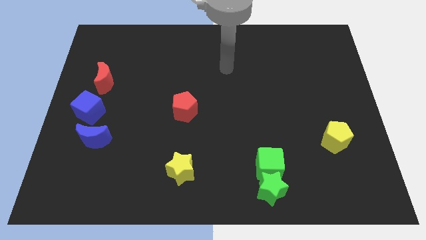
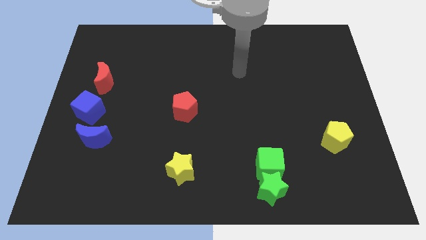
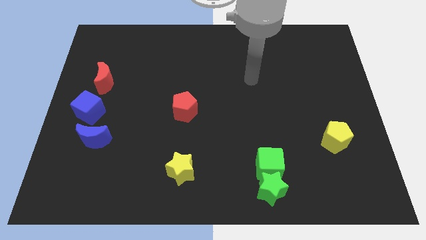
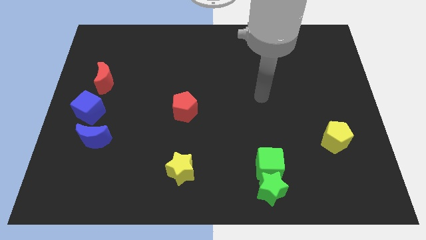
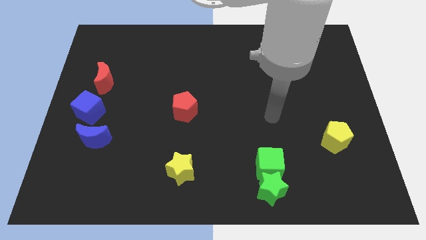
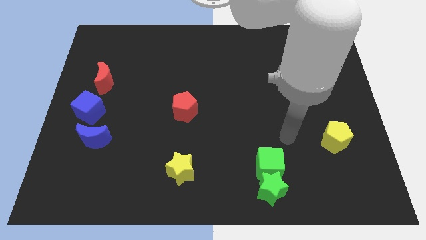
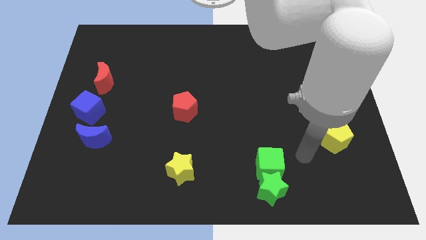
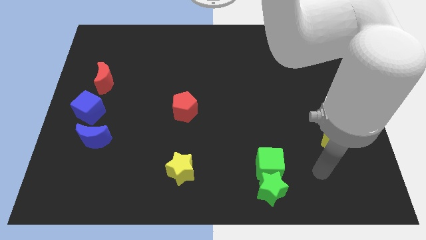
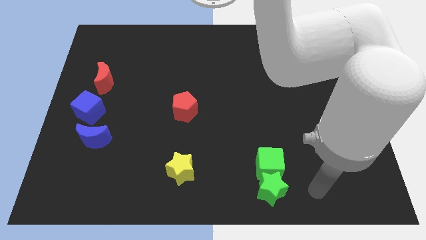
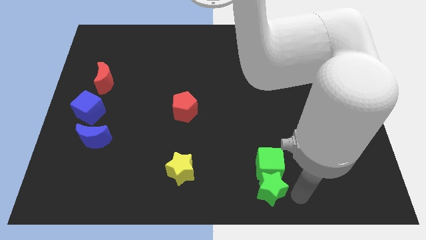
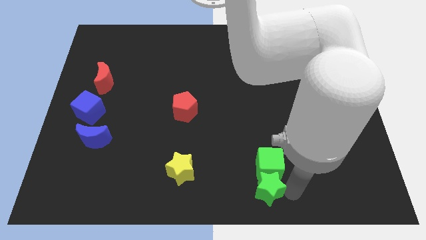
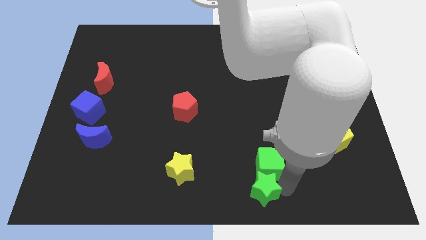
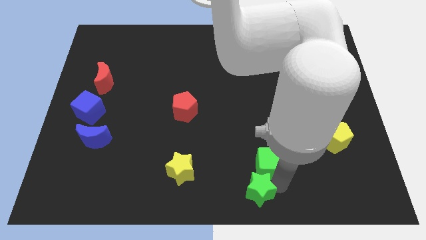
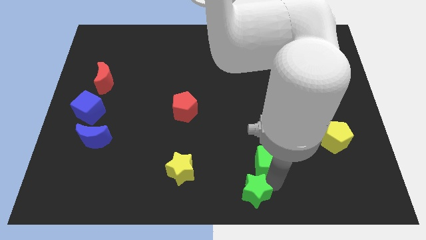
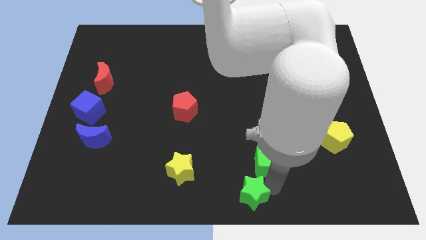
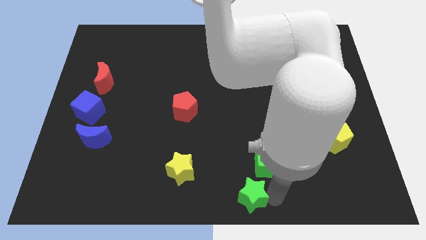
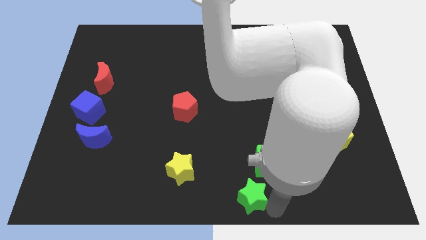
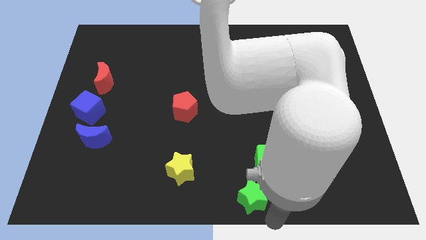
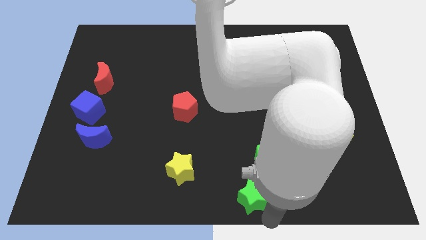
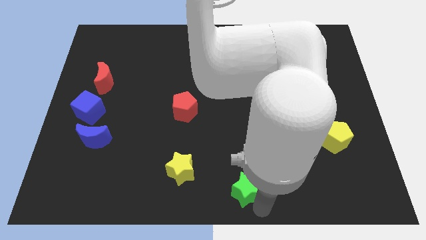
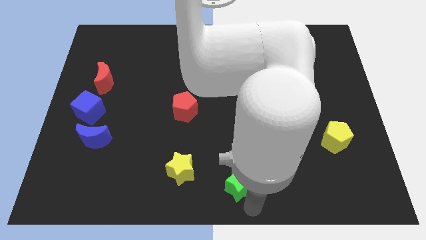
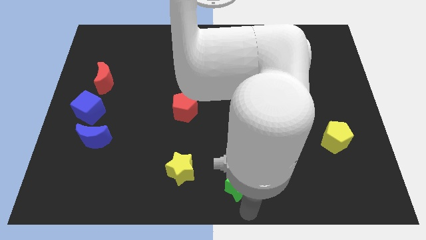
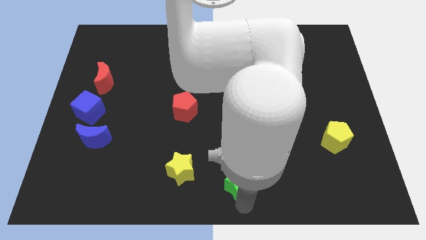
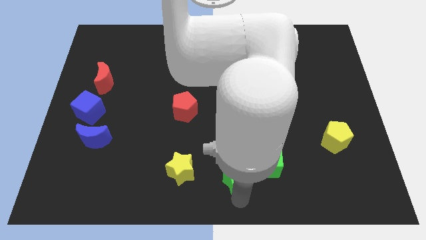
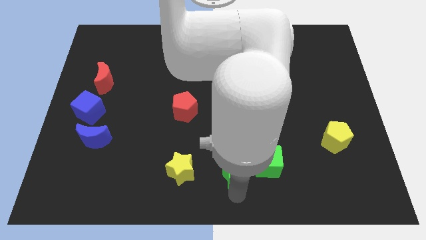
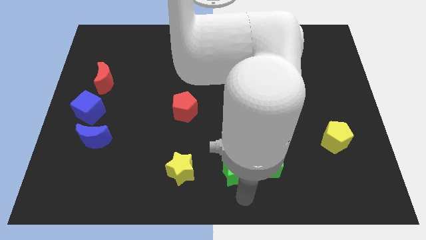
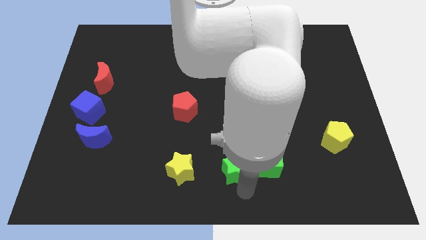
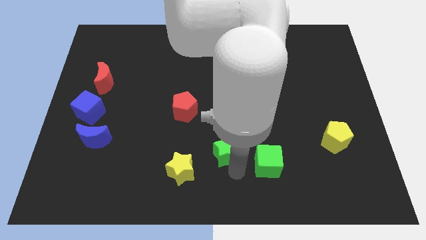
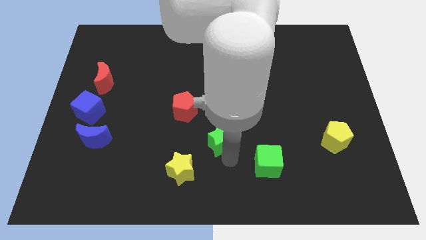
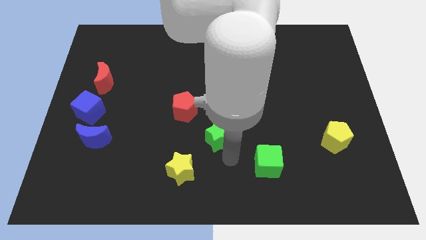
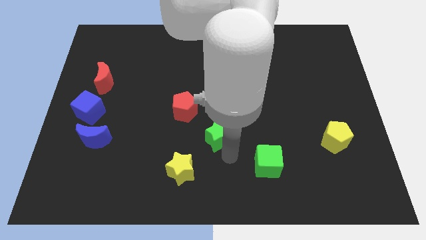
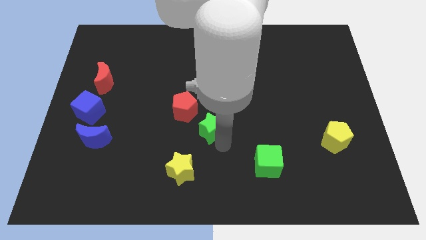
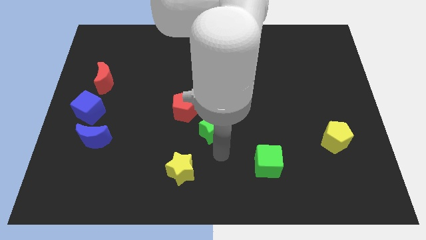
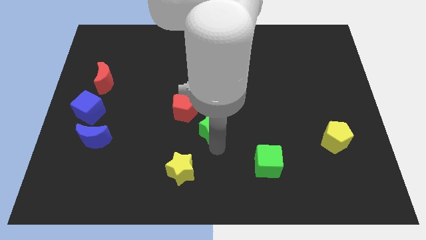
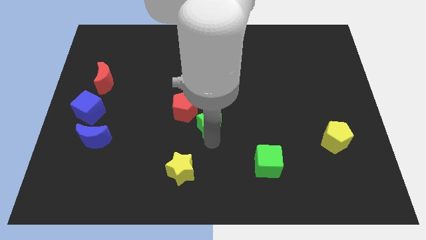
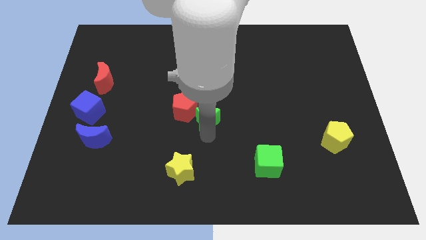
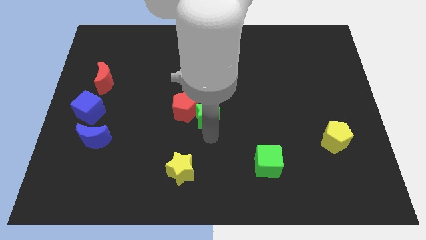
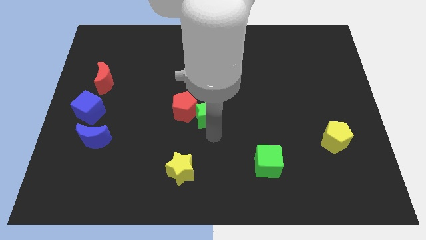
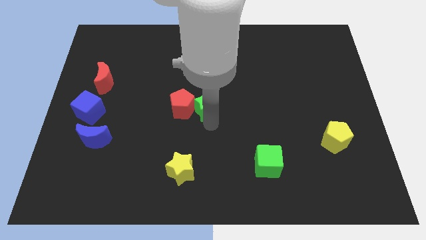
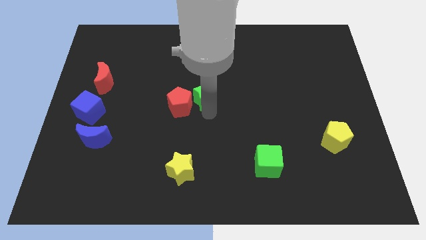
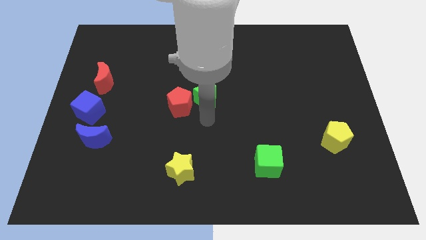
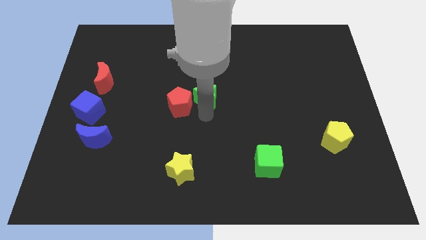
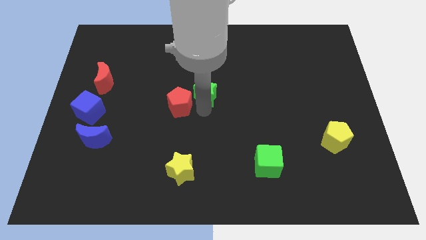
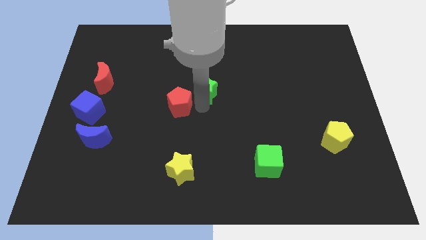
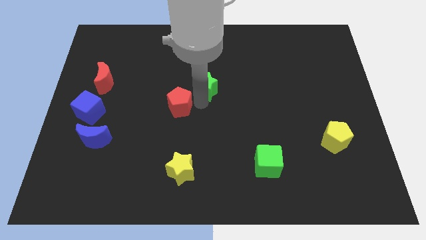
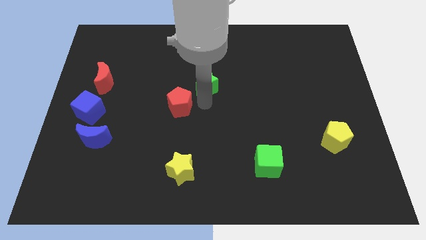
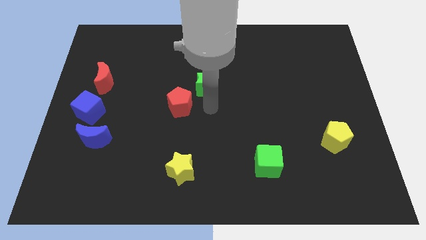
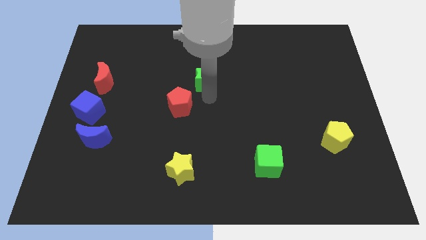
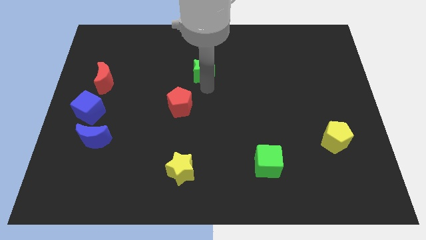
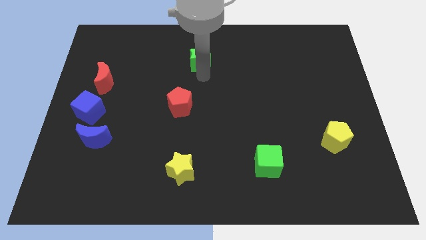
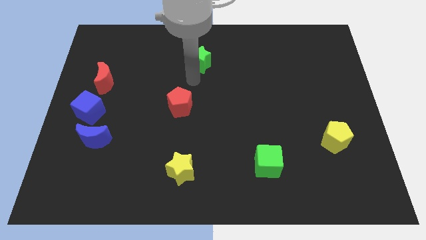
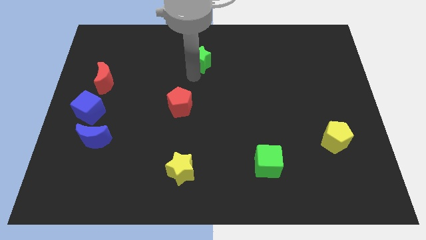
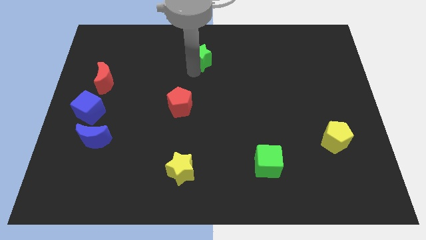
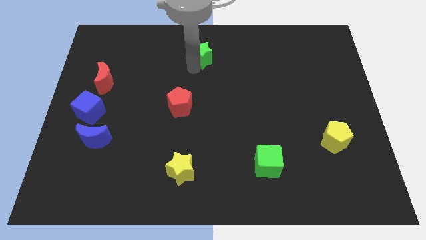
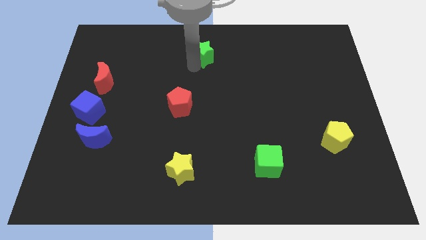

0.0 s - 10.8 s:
move the green star to the top side

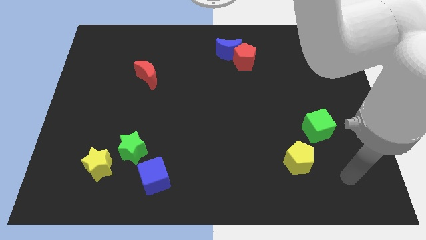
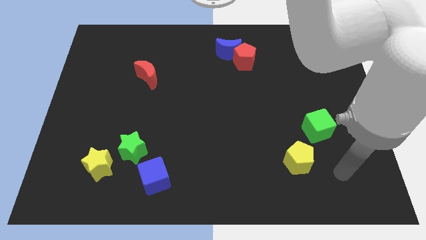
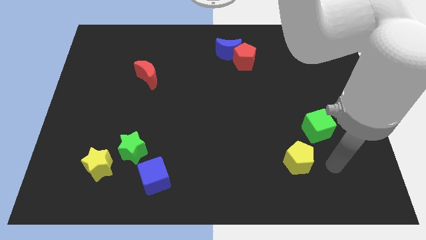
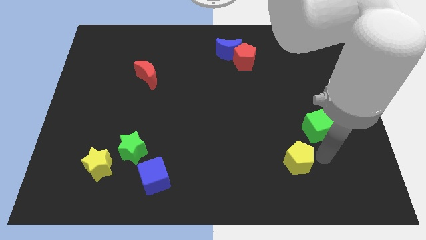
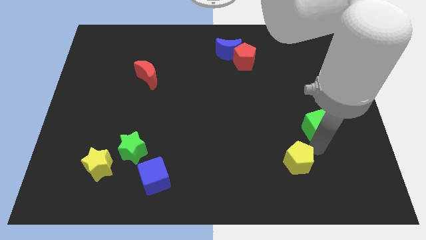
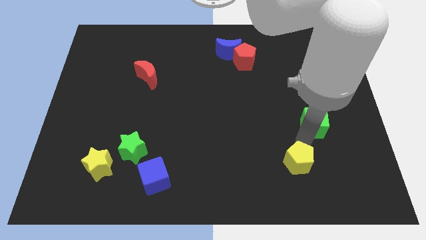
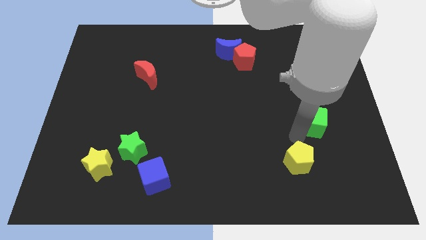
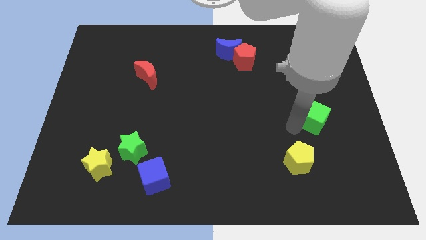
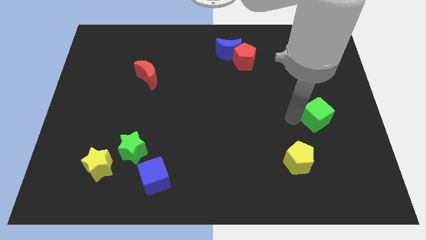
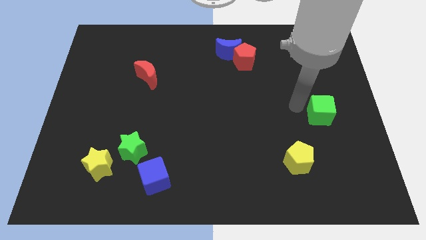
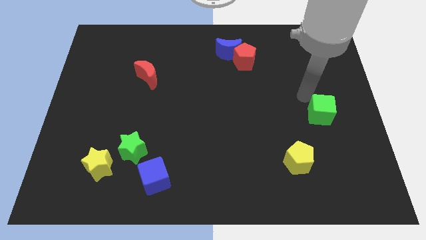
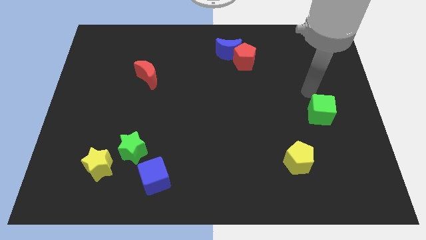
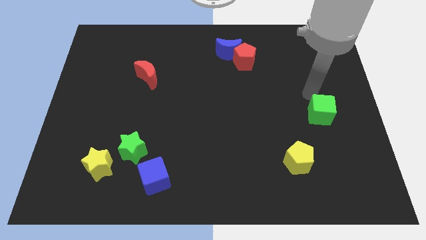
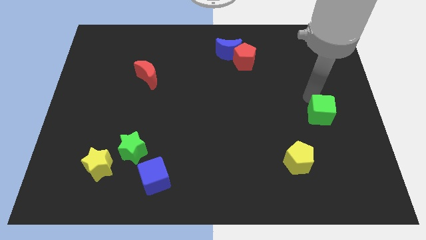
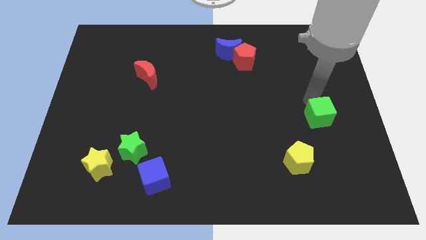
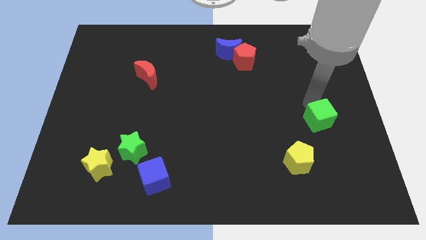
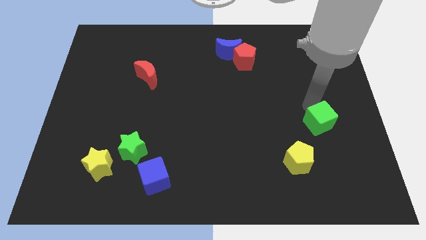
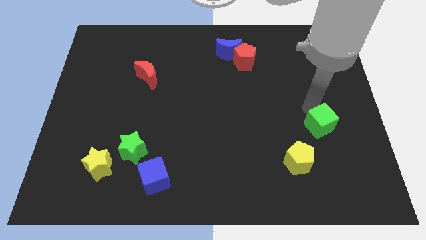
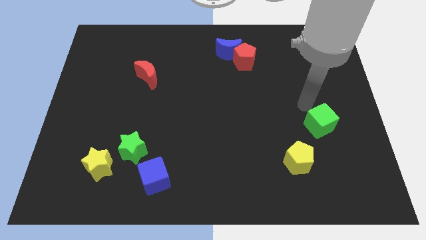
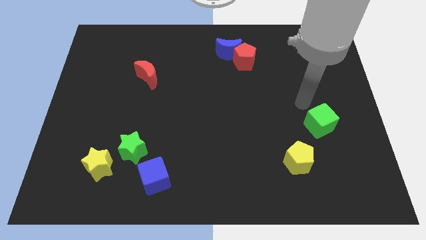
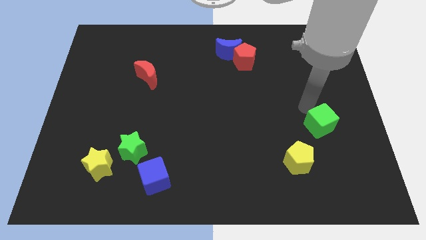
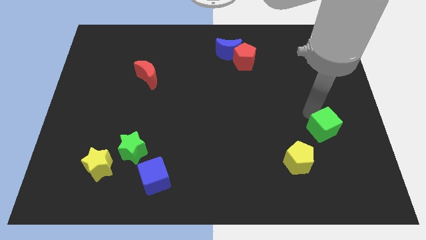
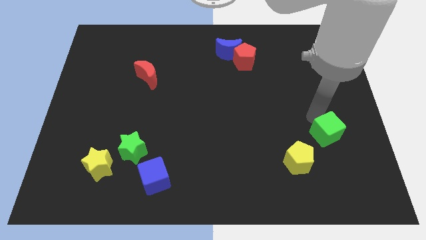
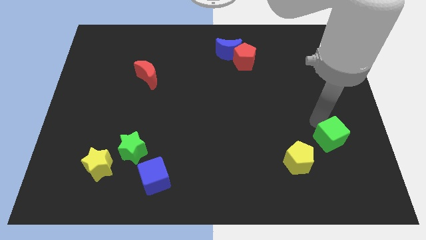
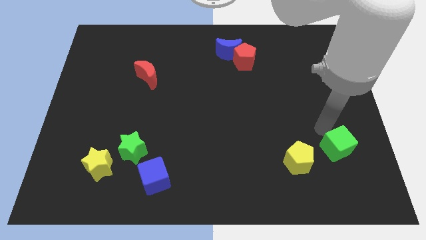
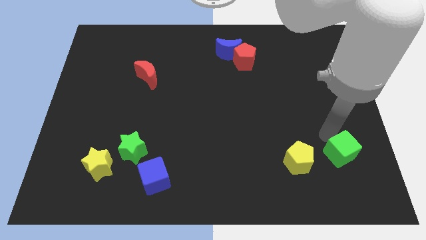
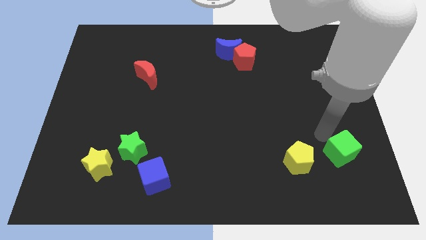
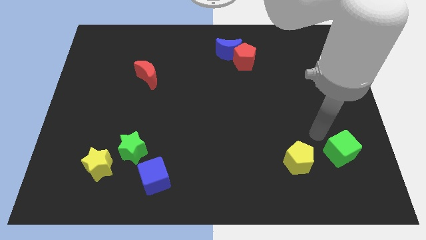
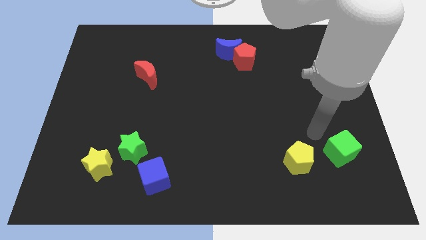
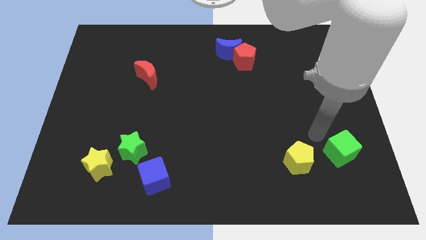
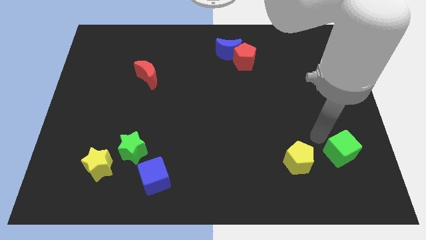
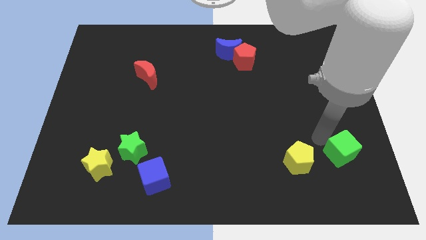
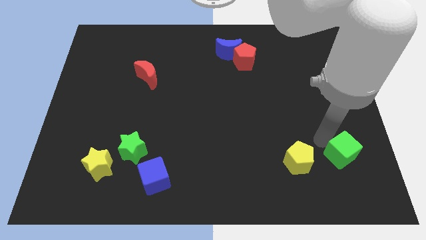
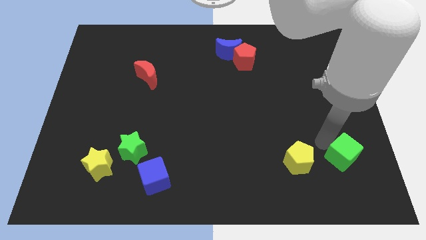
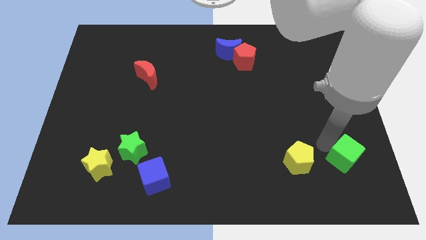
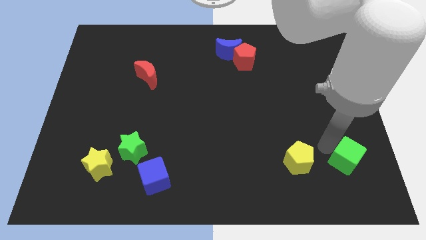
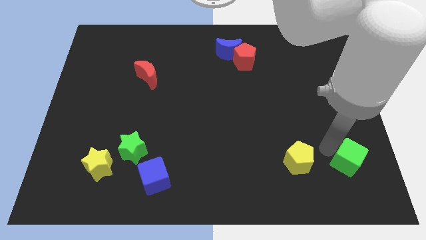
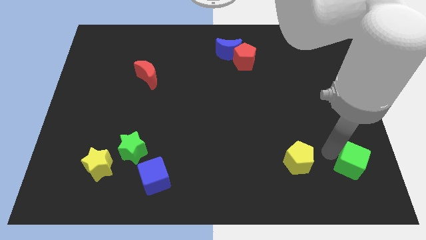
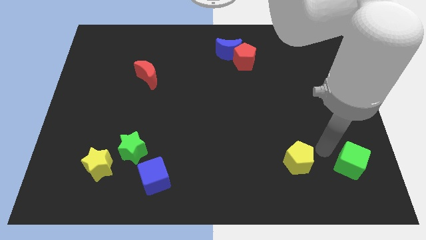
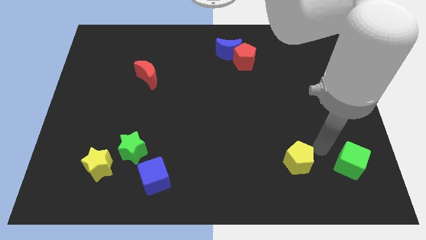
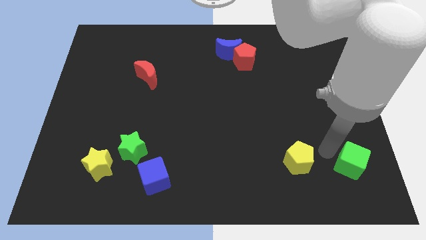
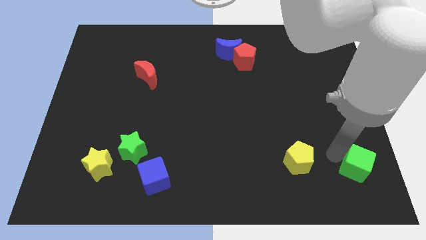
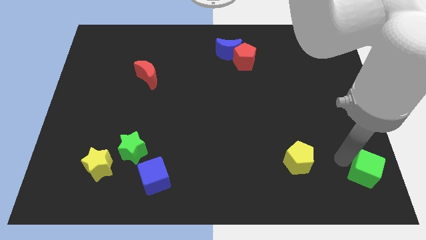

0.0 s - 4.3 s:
push the green cube to the bottom right
